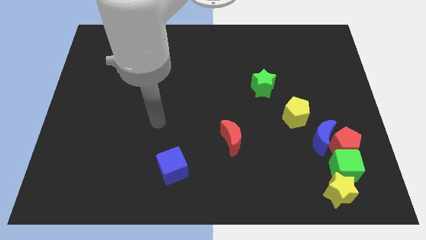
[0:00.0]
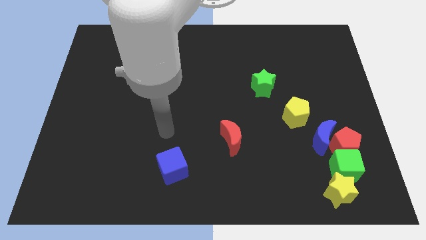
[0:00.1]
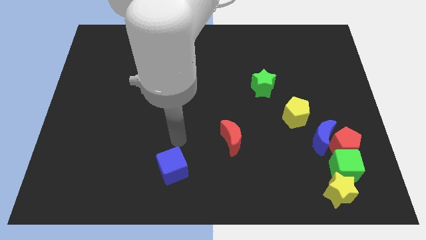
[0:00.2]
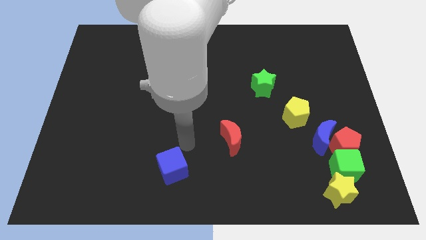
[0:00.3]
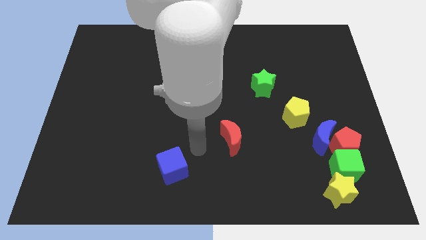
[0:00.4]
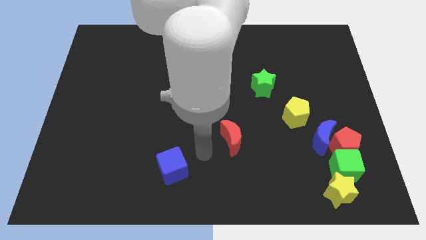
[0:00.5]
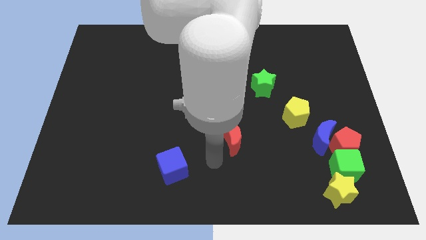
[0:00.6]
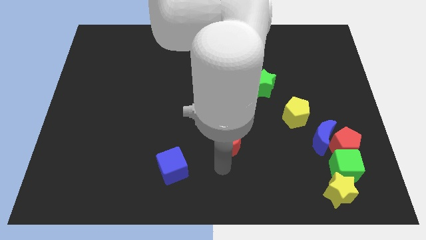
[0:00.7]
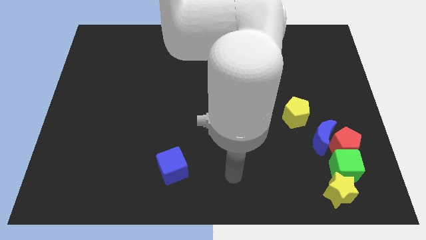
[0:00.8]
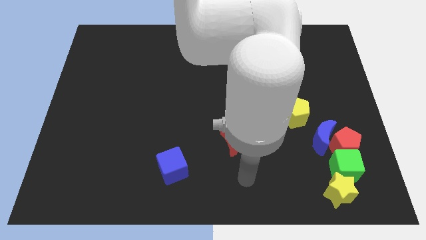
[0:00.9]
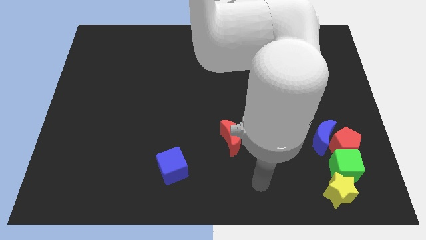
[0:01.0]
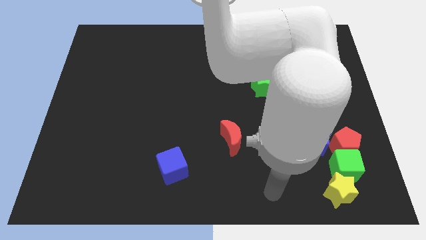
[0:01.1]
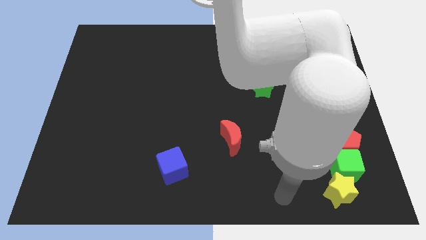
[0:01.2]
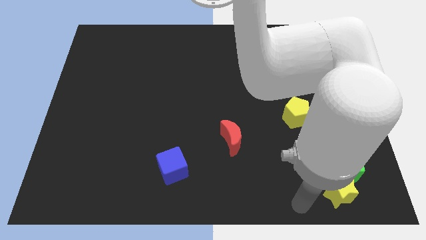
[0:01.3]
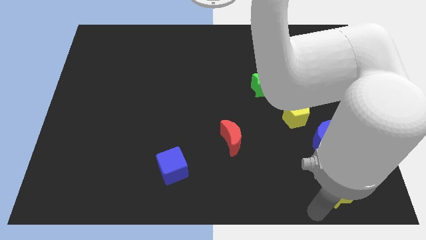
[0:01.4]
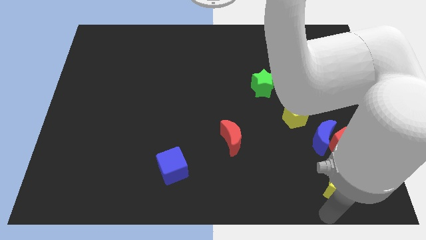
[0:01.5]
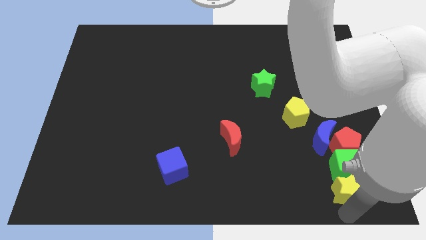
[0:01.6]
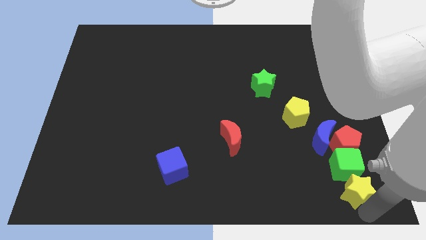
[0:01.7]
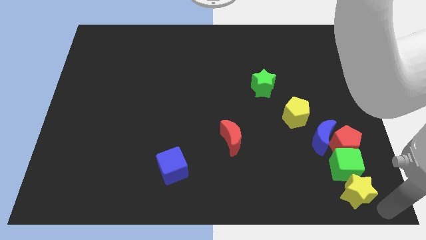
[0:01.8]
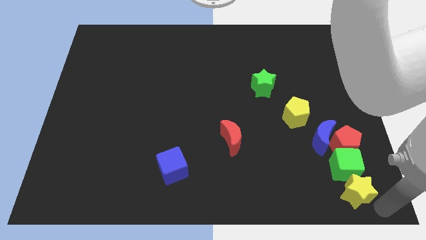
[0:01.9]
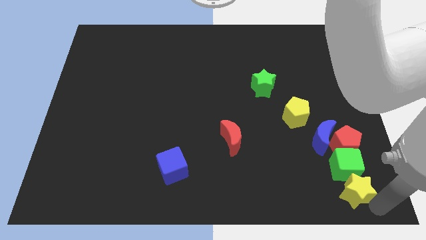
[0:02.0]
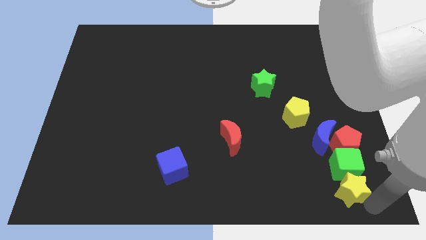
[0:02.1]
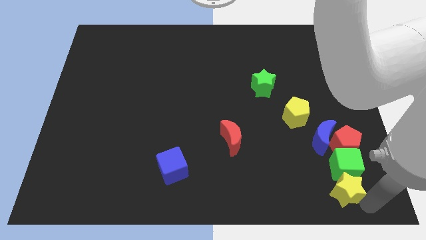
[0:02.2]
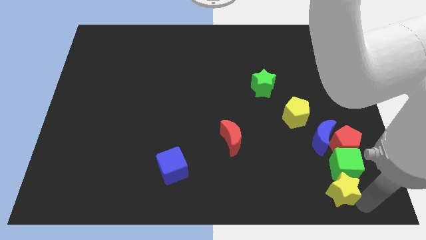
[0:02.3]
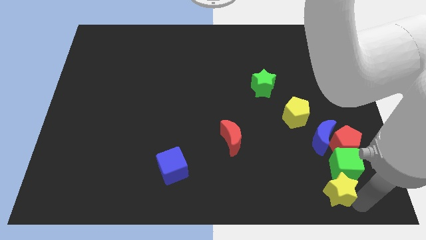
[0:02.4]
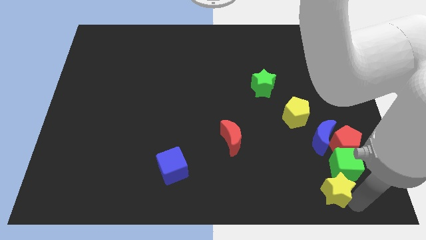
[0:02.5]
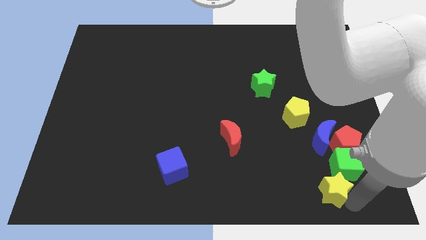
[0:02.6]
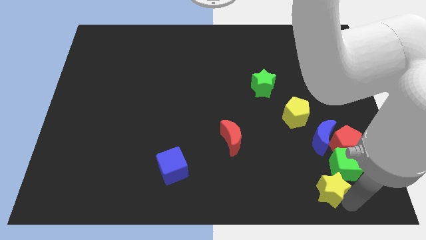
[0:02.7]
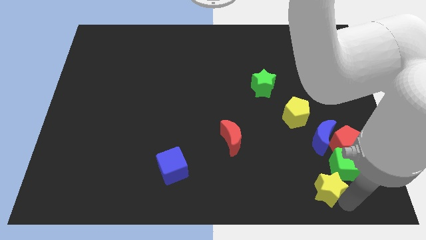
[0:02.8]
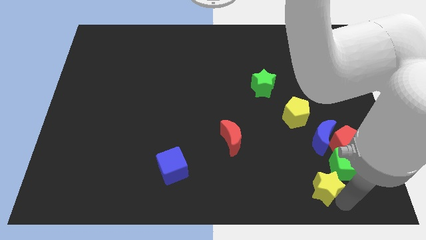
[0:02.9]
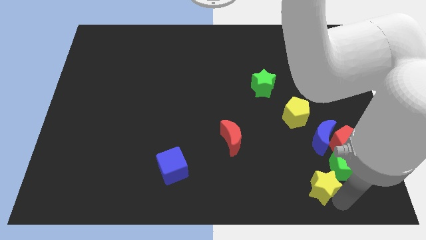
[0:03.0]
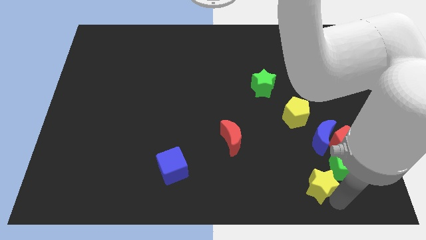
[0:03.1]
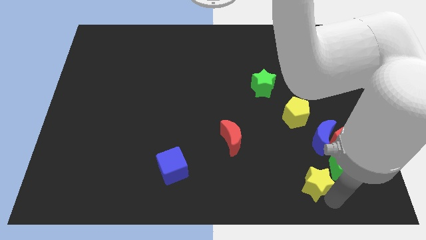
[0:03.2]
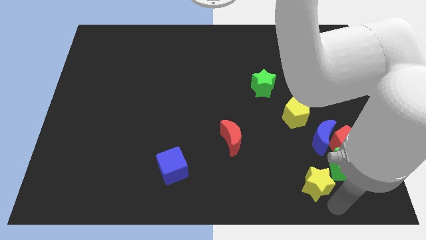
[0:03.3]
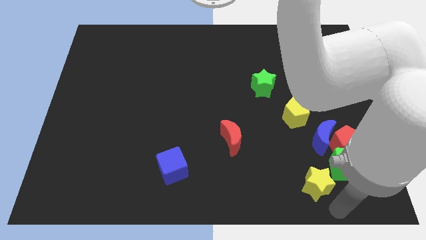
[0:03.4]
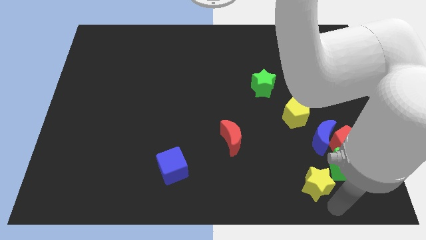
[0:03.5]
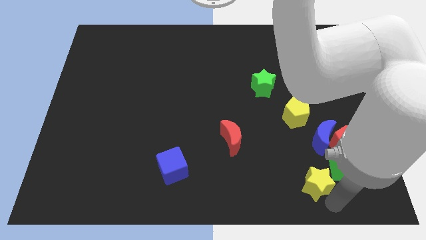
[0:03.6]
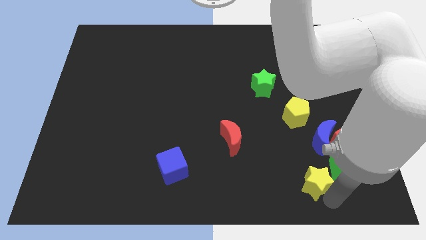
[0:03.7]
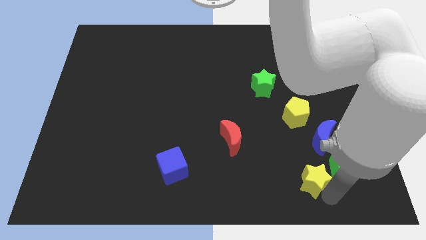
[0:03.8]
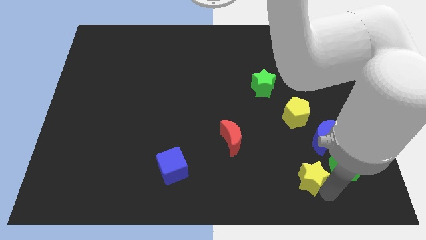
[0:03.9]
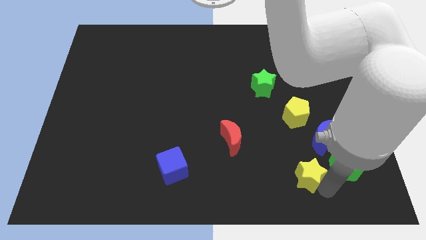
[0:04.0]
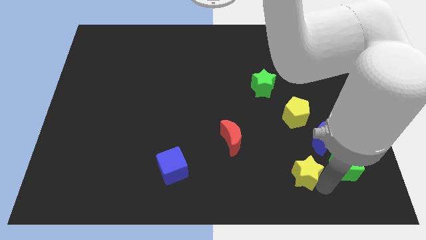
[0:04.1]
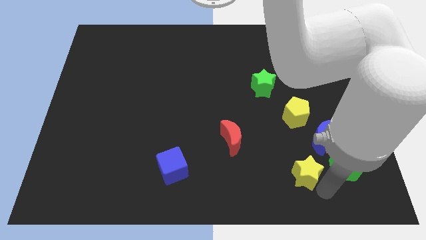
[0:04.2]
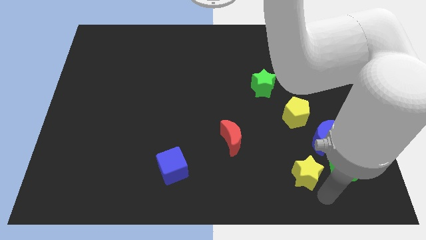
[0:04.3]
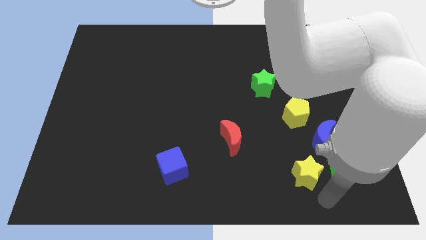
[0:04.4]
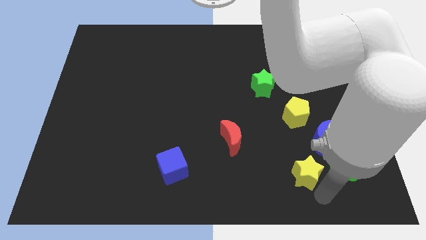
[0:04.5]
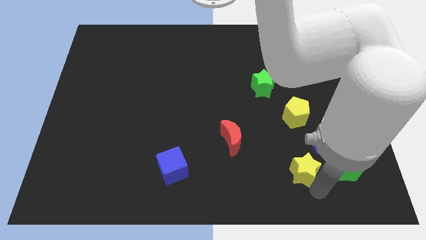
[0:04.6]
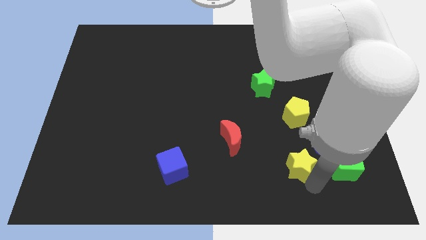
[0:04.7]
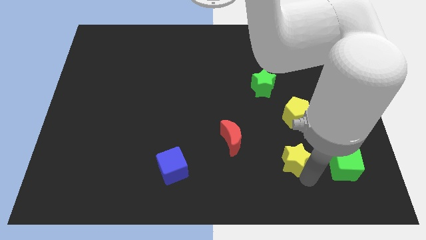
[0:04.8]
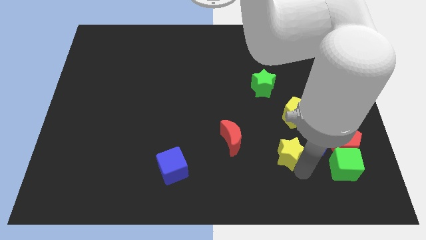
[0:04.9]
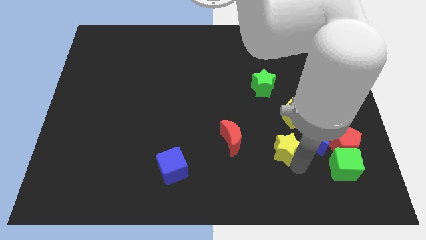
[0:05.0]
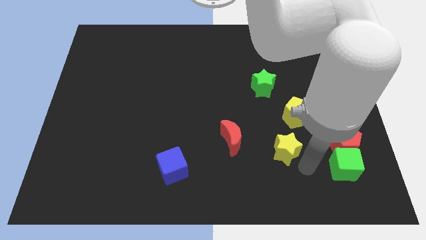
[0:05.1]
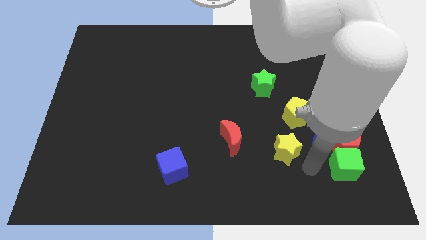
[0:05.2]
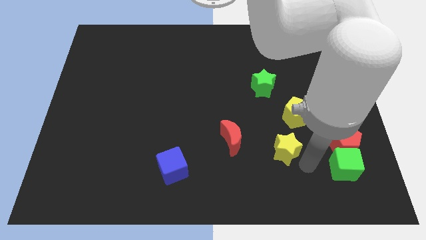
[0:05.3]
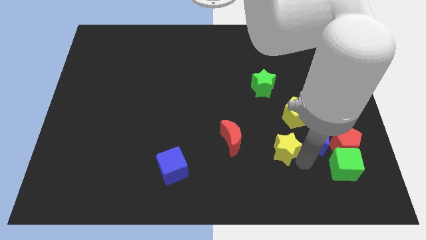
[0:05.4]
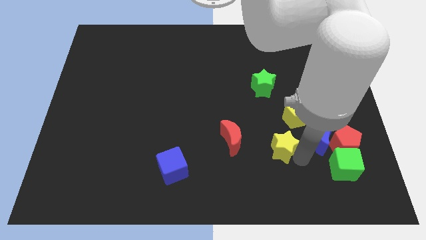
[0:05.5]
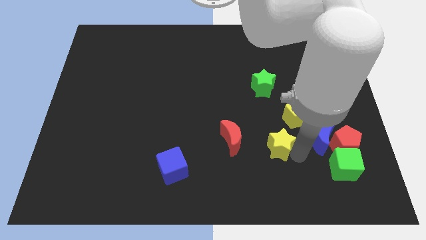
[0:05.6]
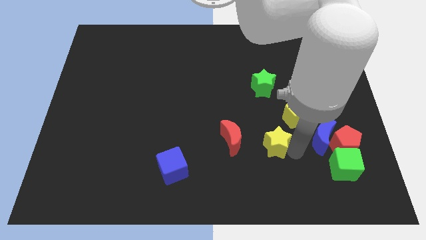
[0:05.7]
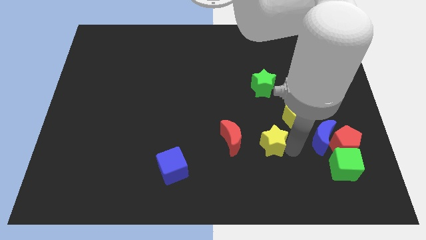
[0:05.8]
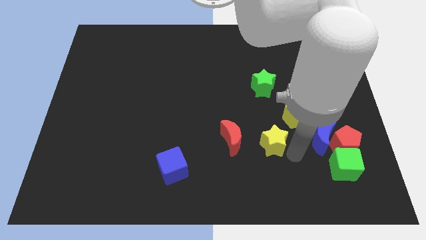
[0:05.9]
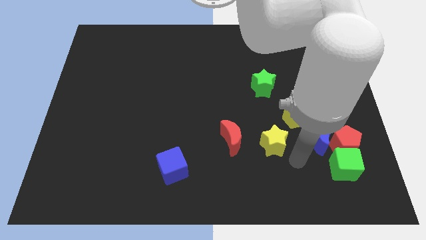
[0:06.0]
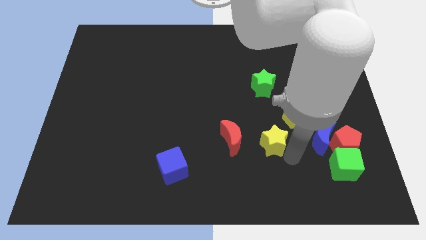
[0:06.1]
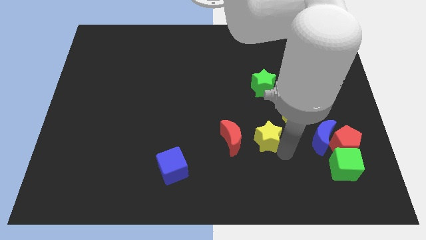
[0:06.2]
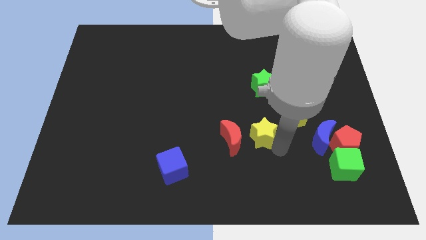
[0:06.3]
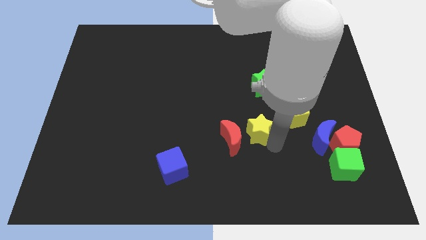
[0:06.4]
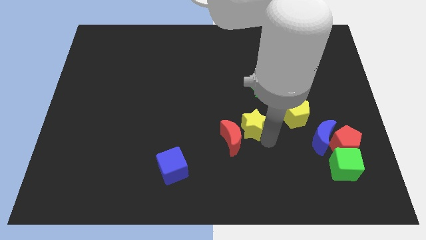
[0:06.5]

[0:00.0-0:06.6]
put the yellow star to the center
